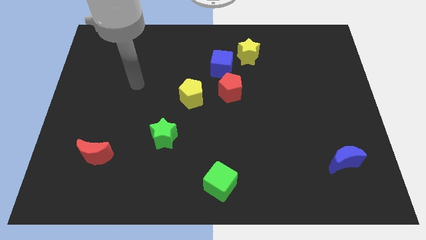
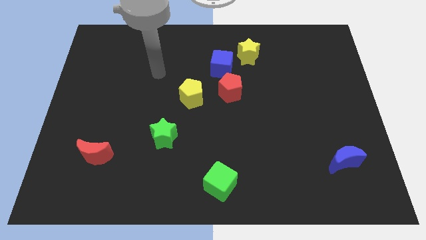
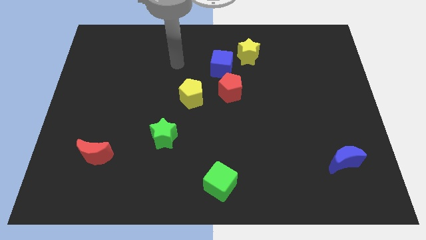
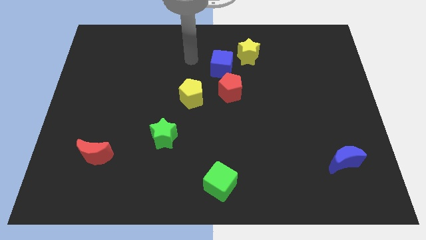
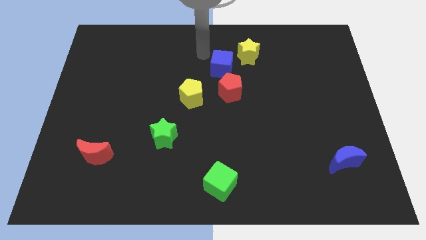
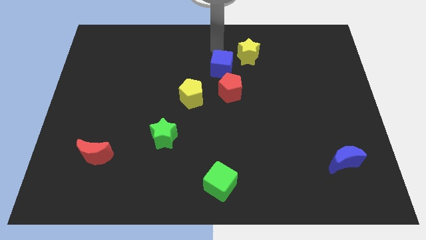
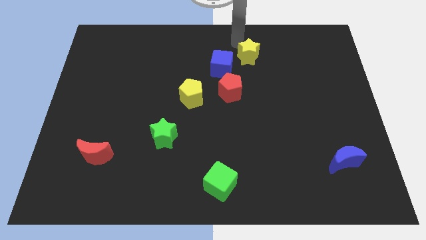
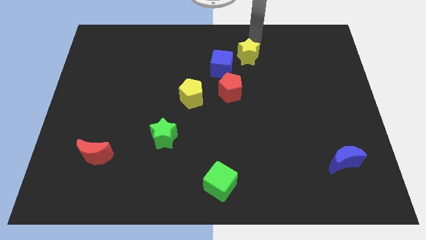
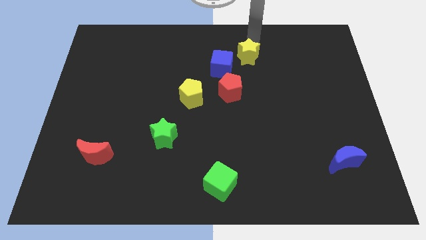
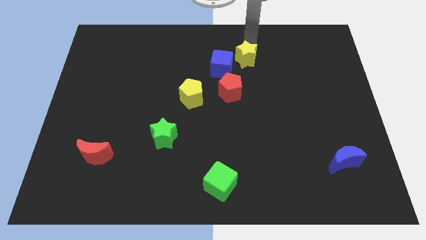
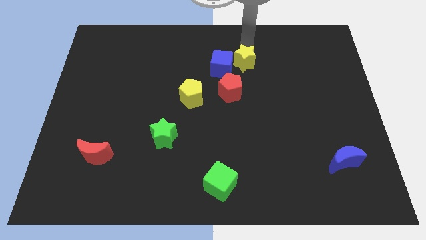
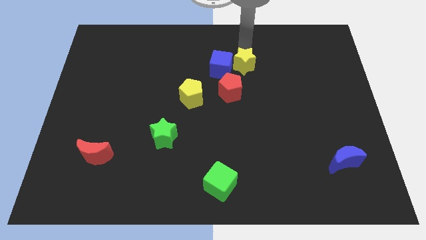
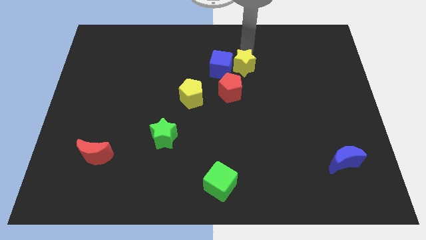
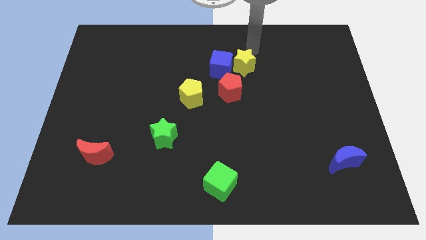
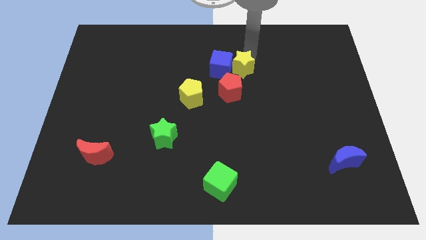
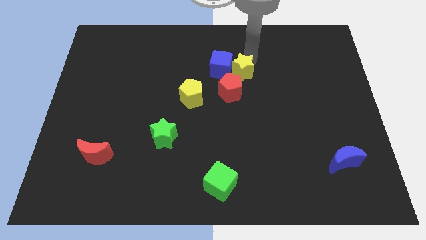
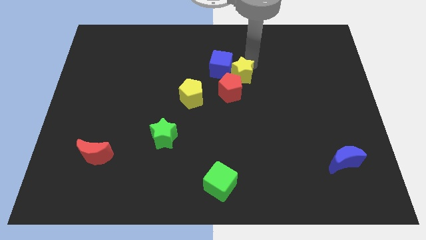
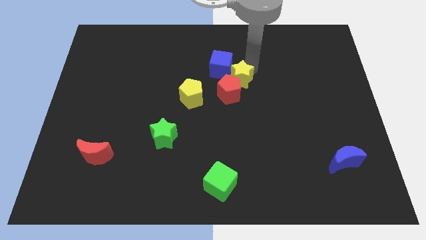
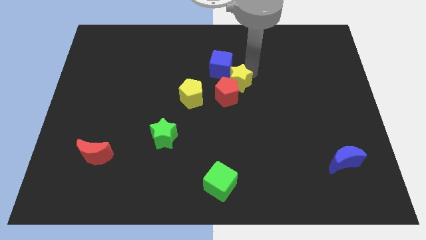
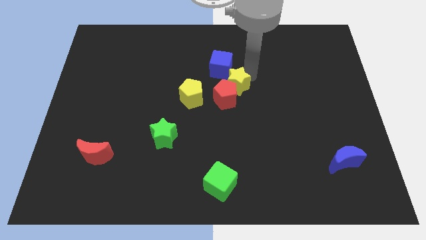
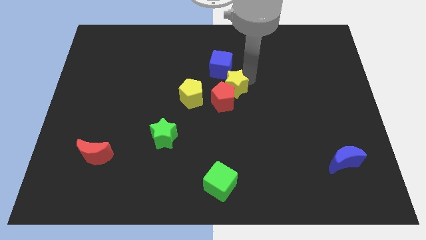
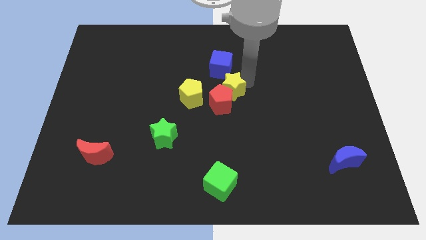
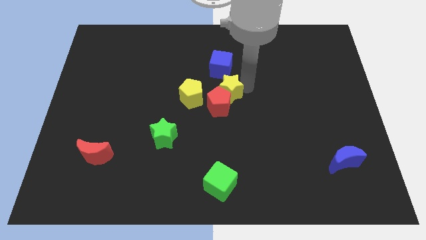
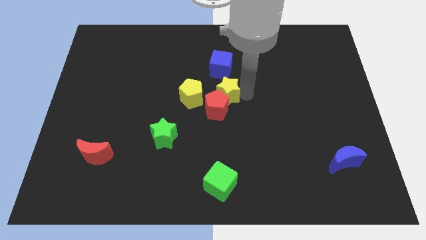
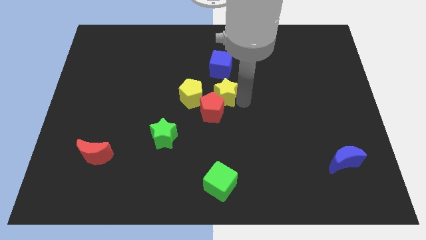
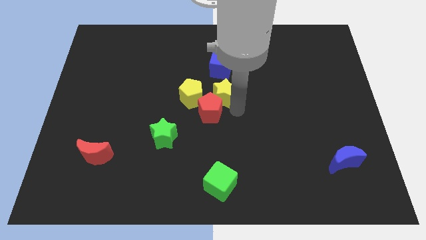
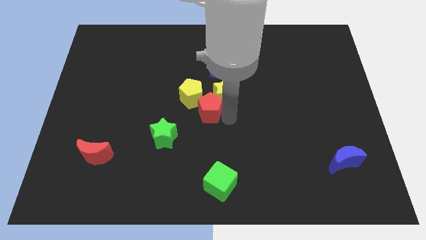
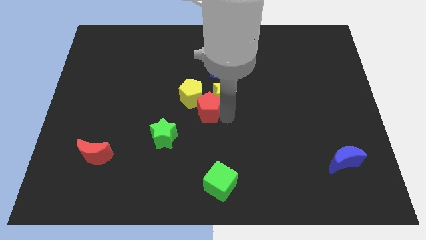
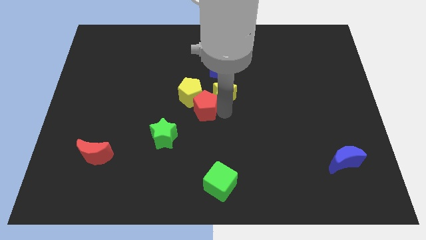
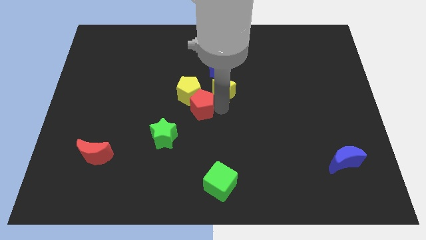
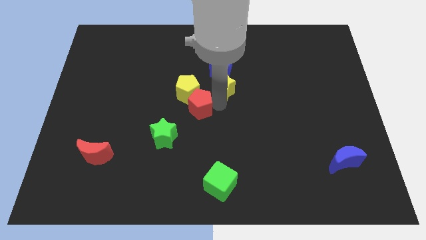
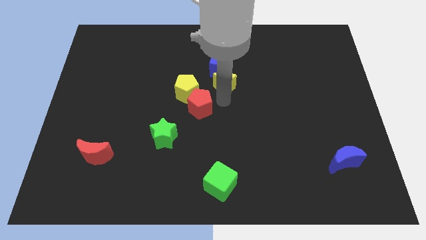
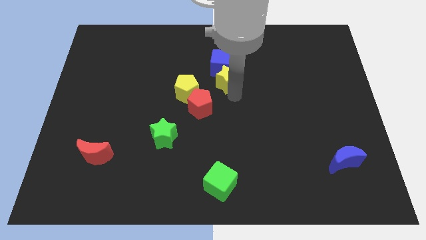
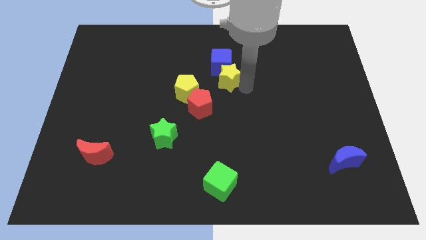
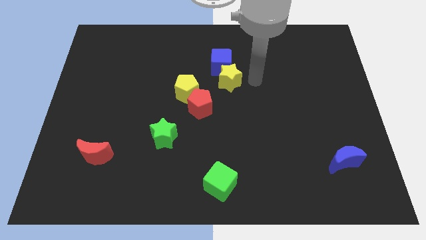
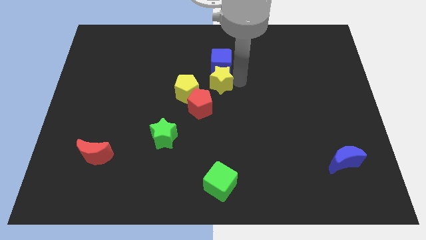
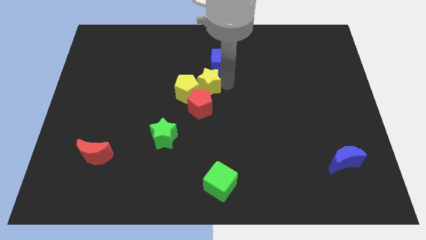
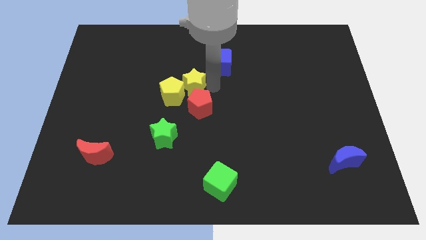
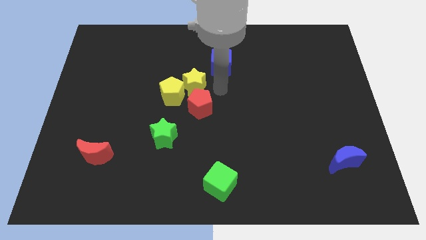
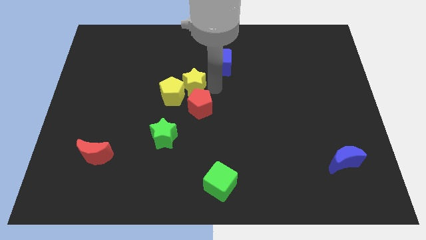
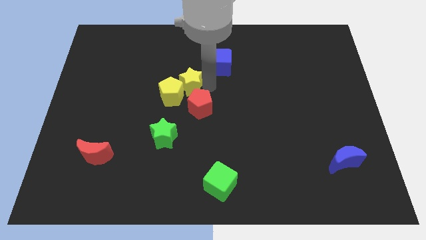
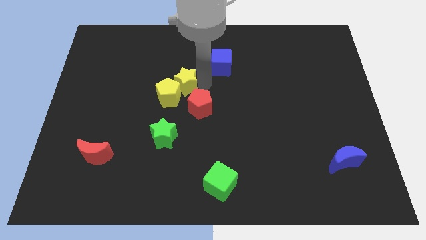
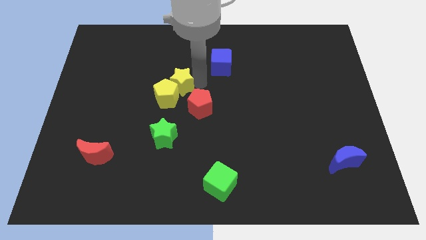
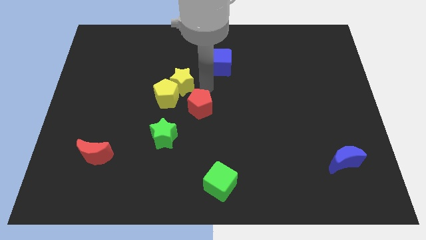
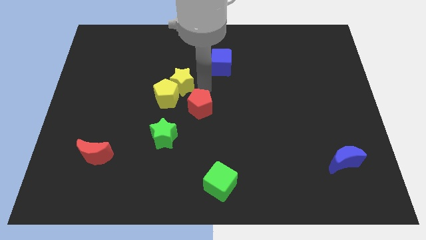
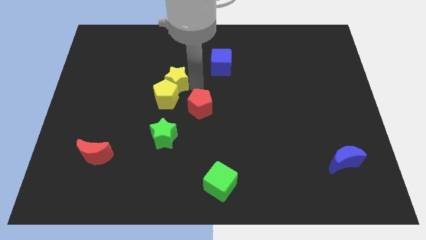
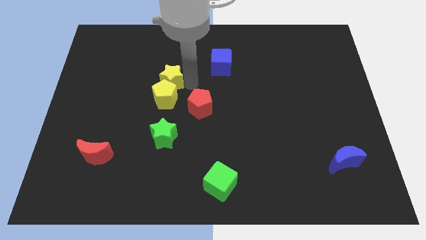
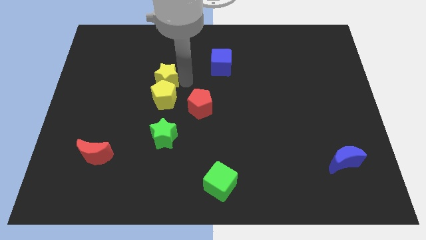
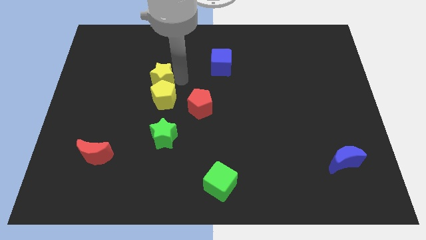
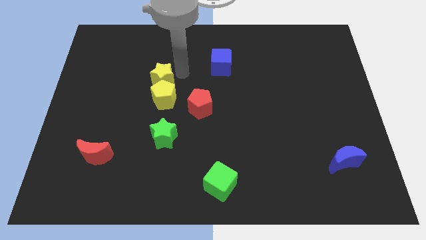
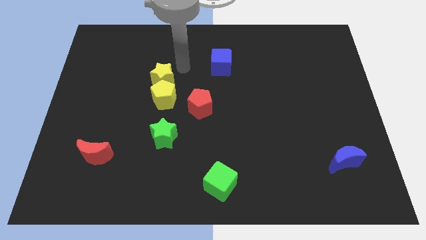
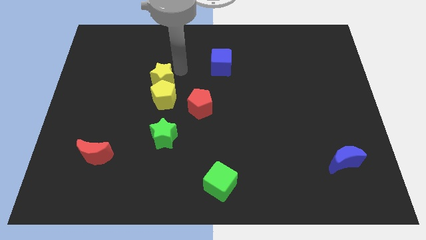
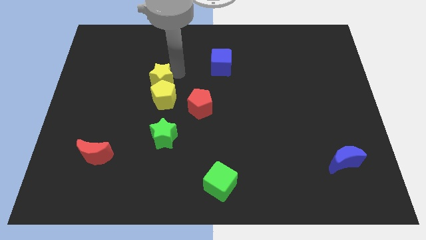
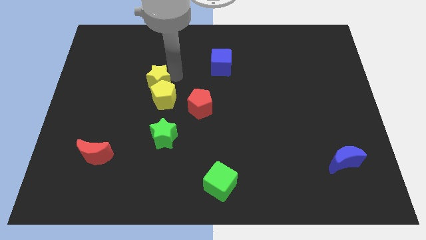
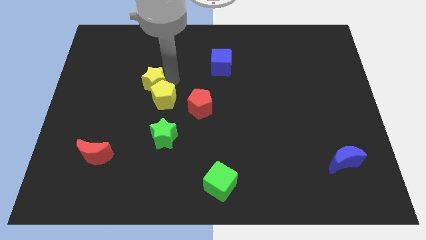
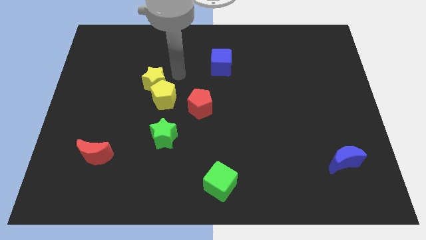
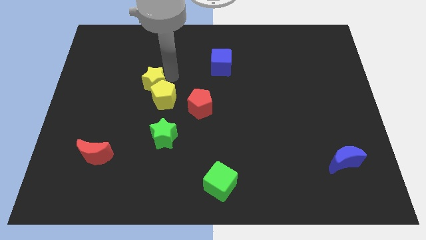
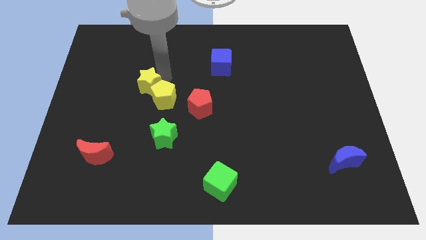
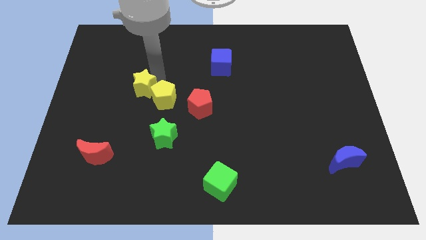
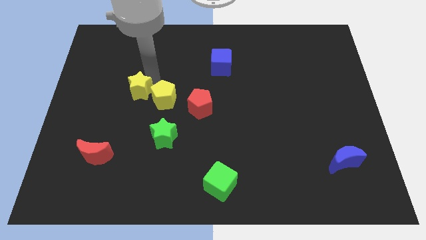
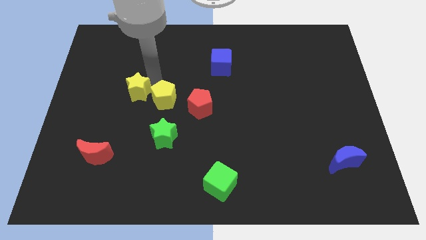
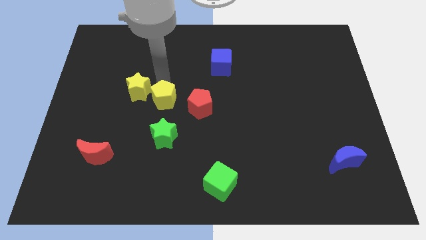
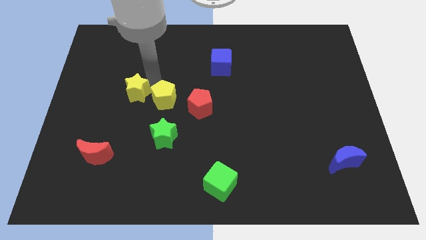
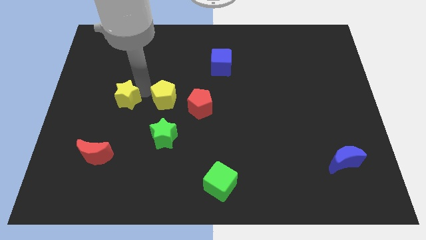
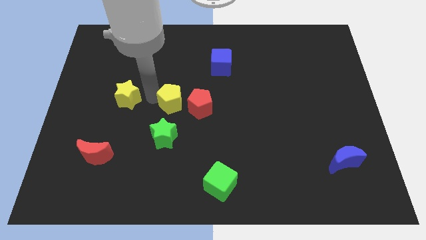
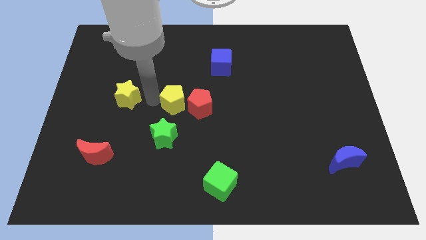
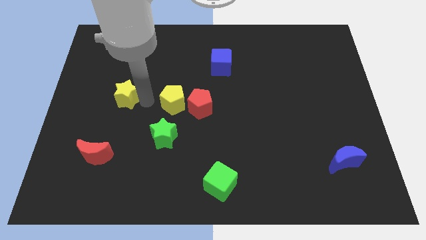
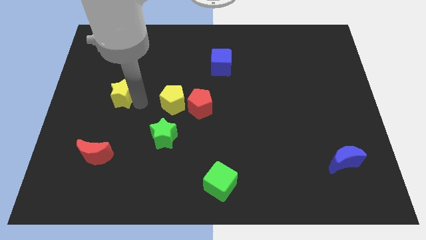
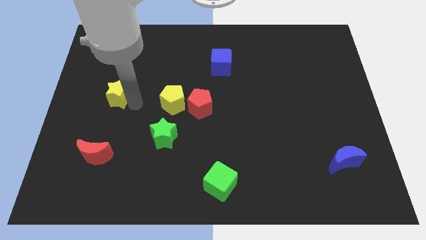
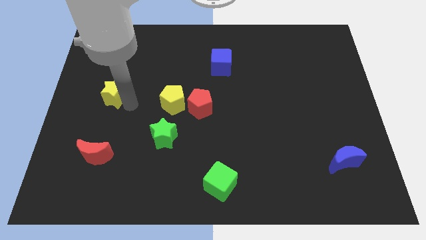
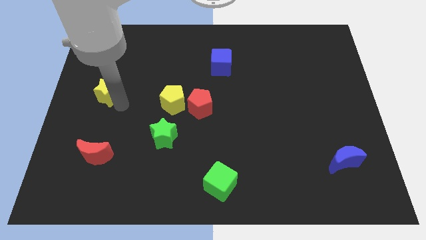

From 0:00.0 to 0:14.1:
put the yellow star to the left side
